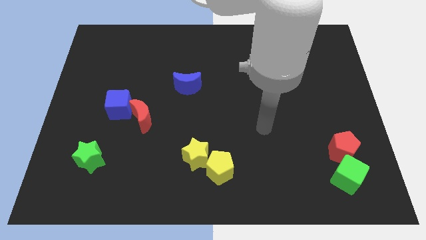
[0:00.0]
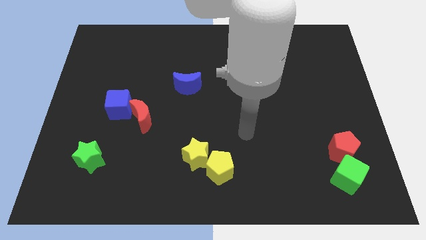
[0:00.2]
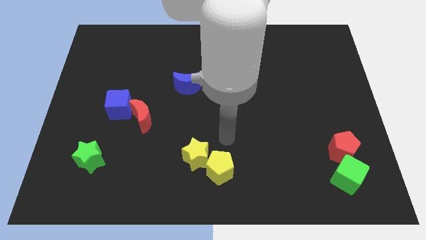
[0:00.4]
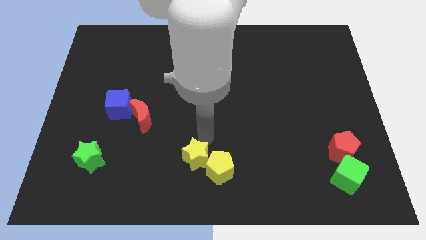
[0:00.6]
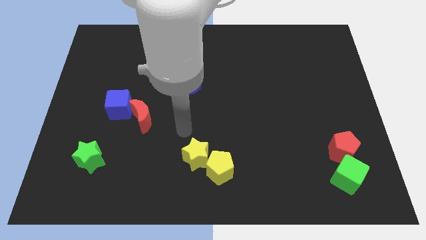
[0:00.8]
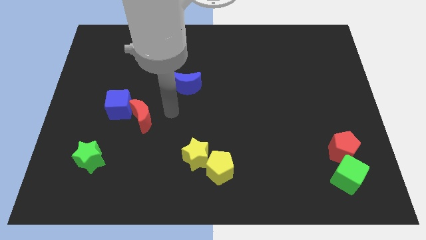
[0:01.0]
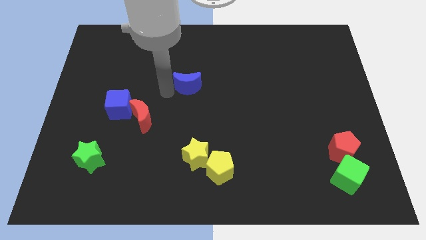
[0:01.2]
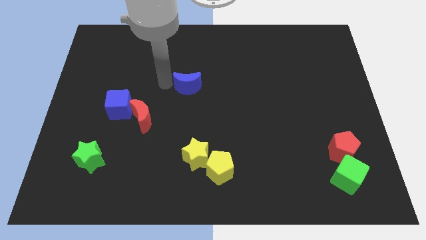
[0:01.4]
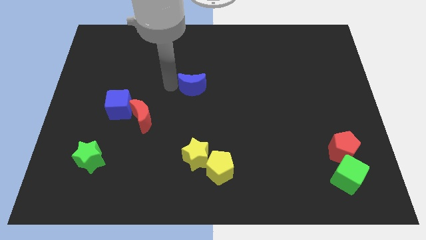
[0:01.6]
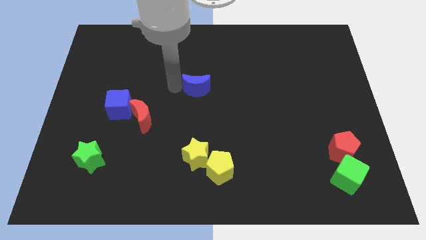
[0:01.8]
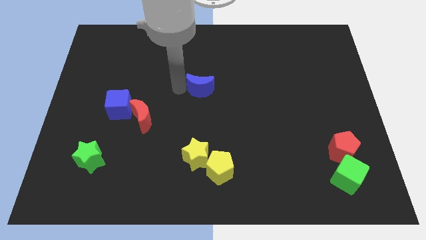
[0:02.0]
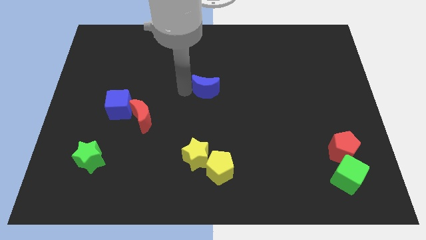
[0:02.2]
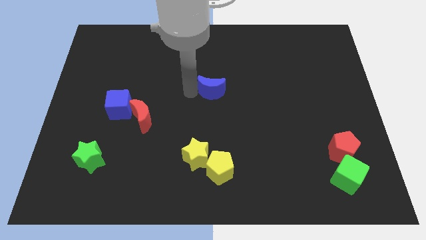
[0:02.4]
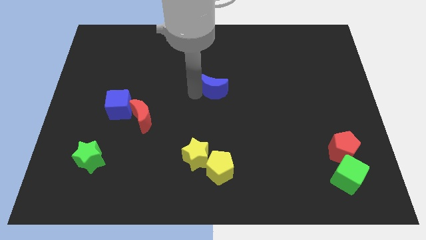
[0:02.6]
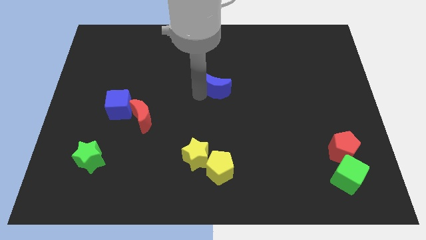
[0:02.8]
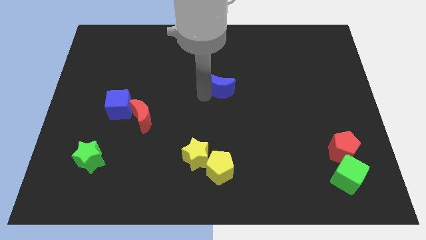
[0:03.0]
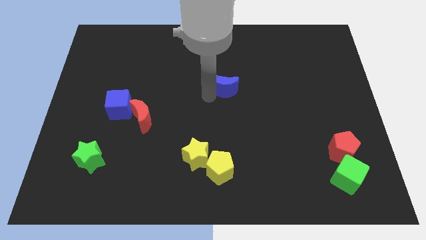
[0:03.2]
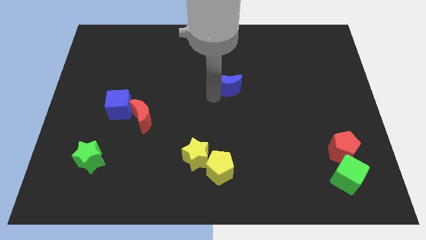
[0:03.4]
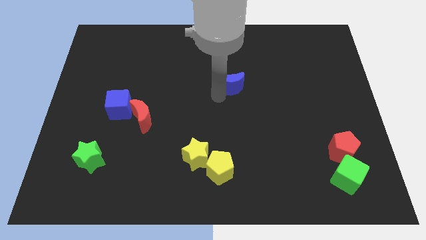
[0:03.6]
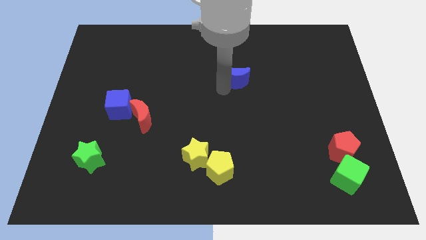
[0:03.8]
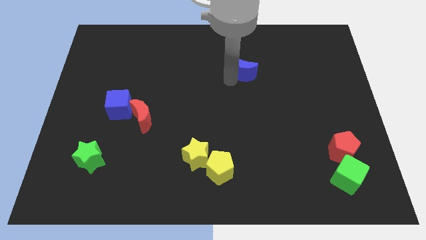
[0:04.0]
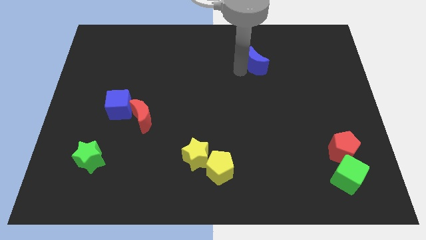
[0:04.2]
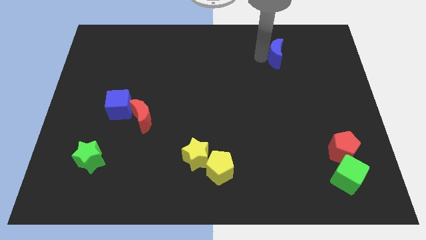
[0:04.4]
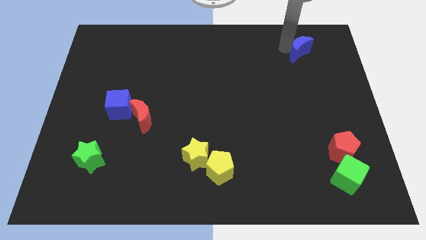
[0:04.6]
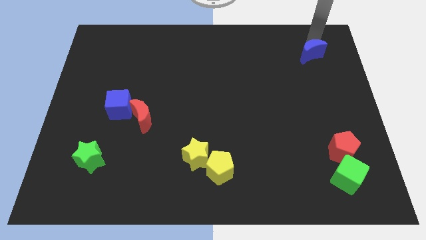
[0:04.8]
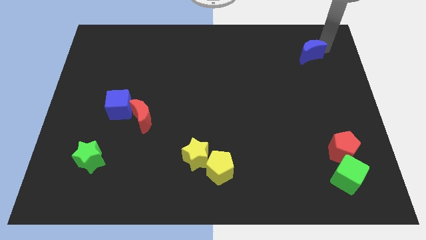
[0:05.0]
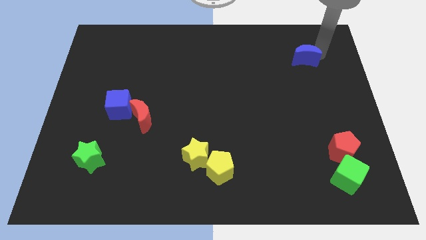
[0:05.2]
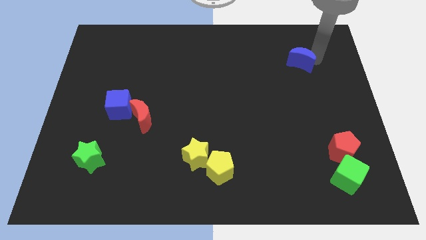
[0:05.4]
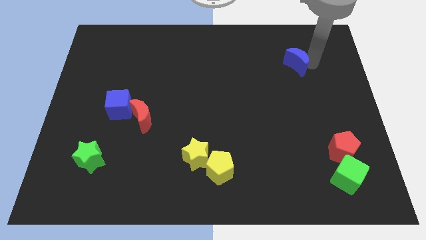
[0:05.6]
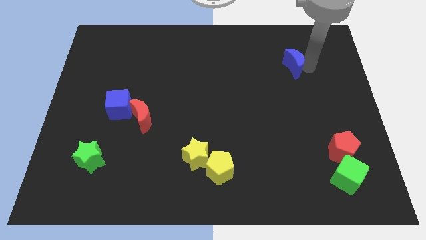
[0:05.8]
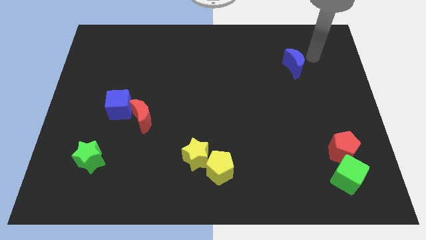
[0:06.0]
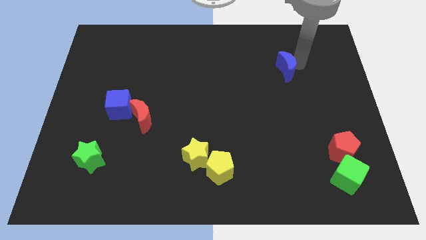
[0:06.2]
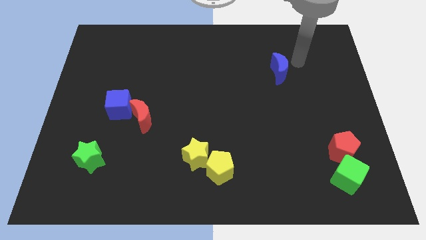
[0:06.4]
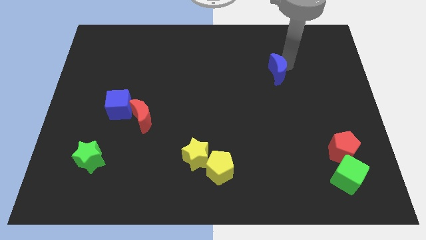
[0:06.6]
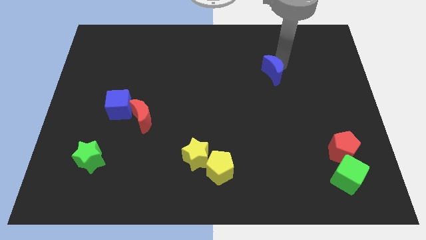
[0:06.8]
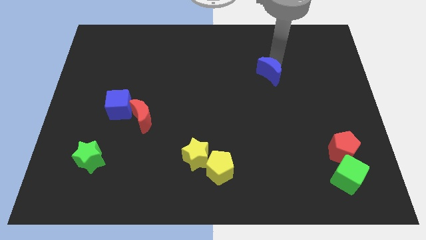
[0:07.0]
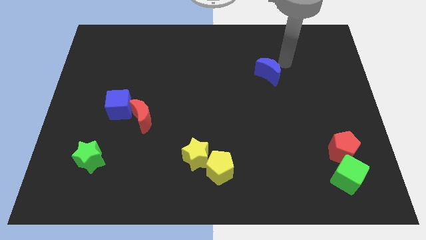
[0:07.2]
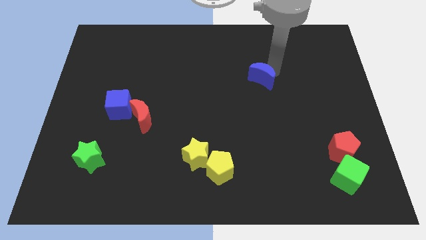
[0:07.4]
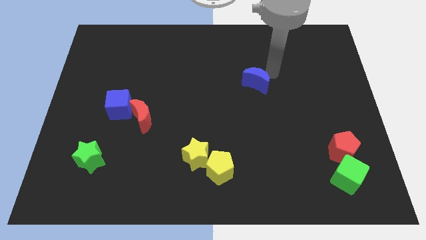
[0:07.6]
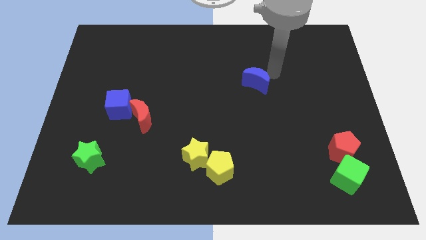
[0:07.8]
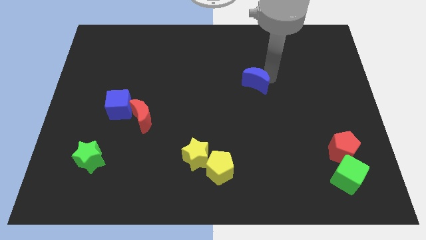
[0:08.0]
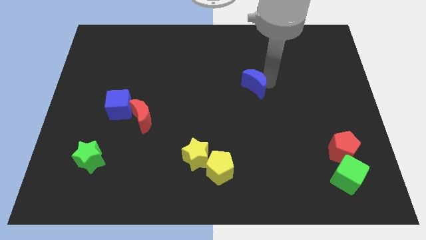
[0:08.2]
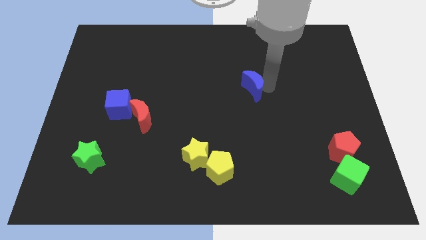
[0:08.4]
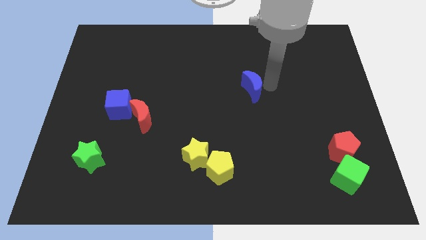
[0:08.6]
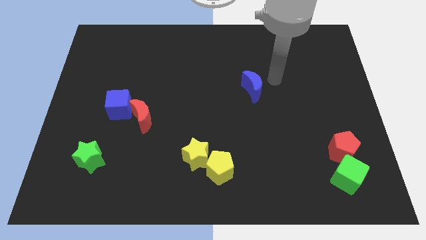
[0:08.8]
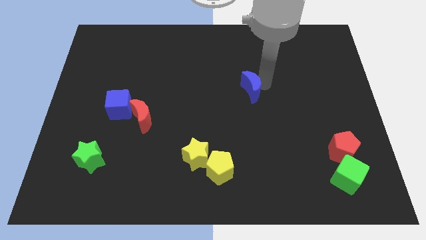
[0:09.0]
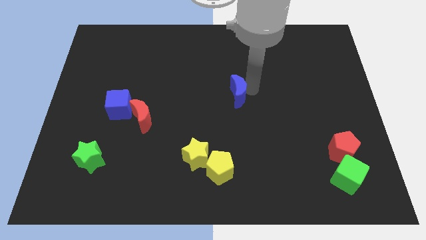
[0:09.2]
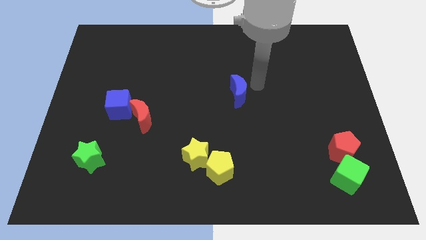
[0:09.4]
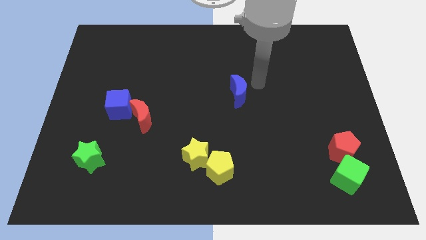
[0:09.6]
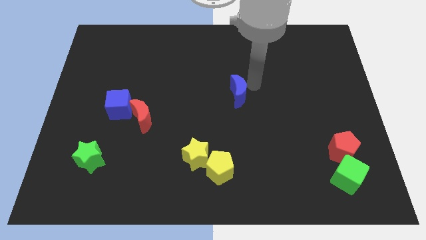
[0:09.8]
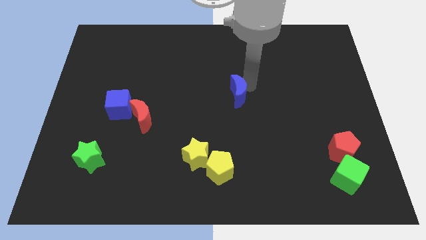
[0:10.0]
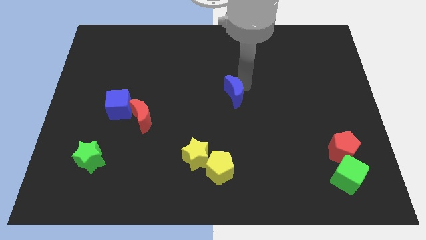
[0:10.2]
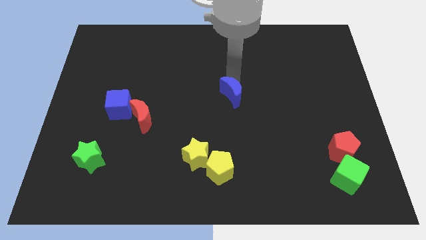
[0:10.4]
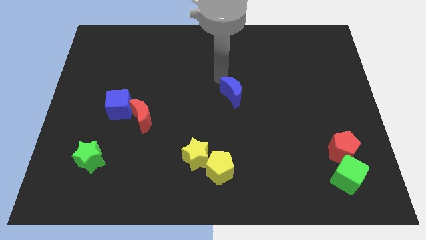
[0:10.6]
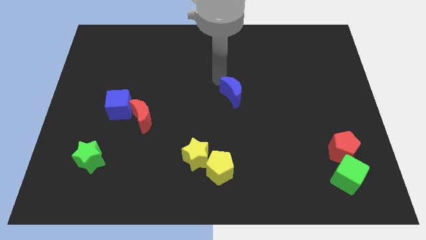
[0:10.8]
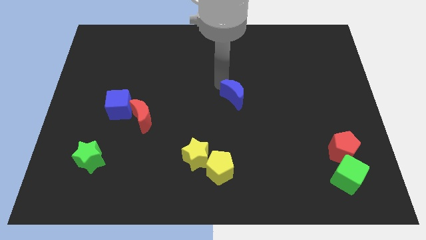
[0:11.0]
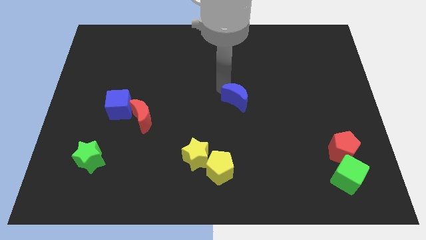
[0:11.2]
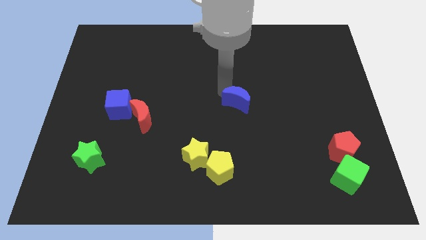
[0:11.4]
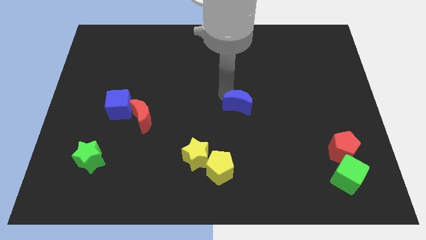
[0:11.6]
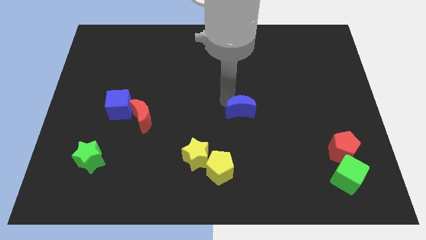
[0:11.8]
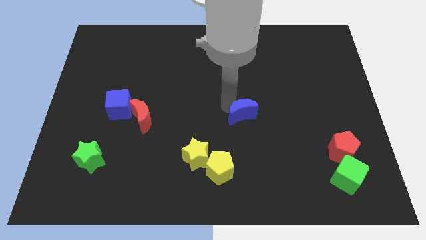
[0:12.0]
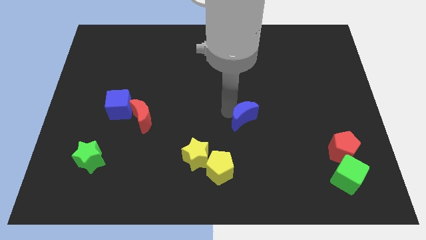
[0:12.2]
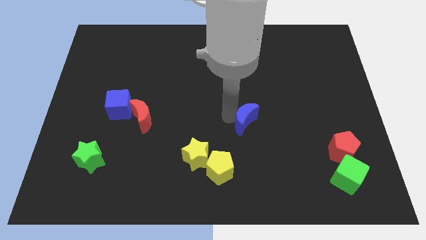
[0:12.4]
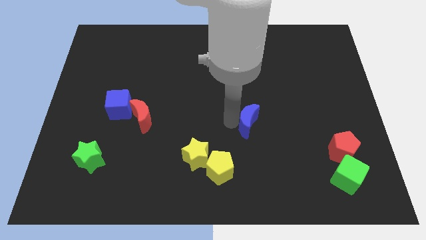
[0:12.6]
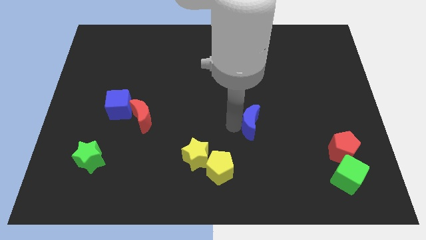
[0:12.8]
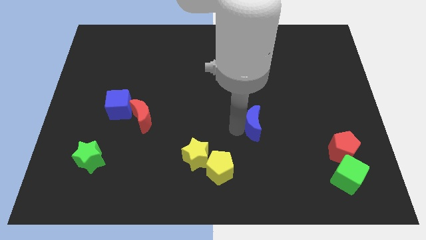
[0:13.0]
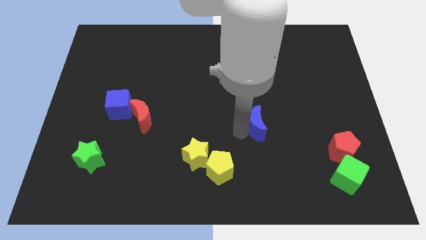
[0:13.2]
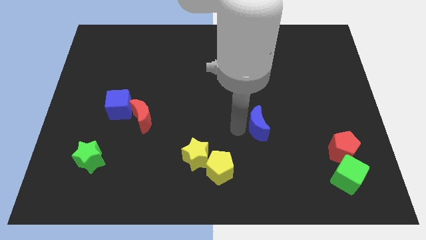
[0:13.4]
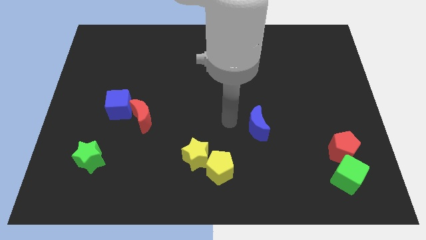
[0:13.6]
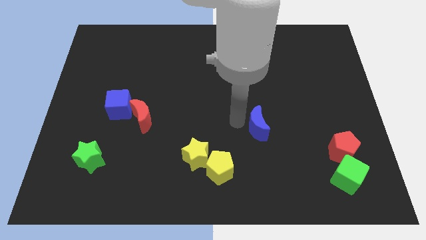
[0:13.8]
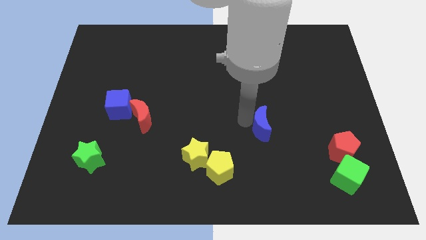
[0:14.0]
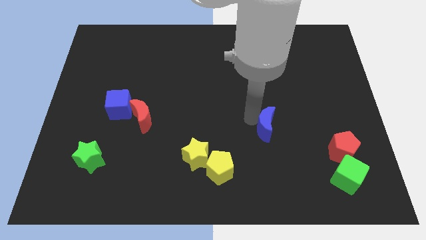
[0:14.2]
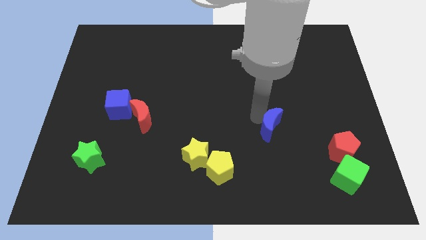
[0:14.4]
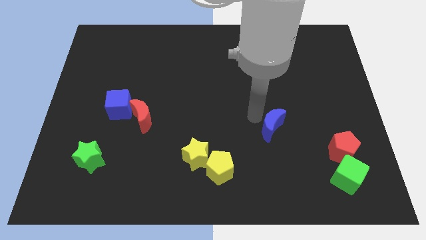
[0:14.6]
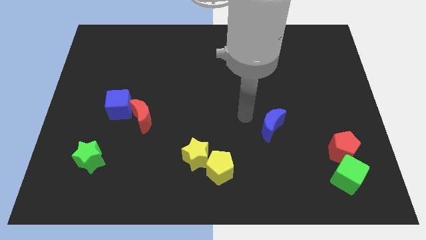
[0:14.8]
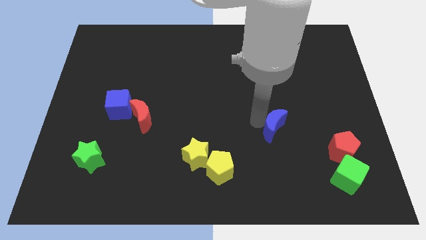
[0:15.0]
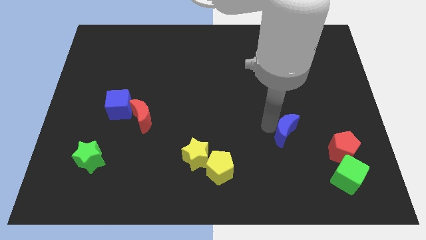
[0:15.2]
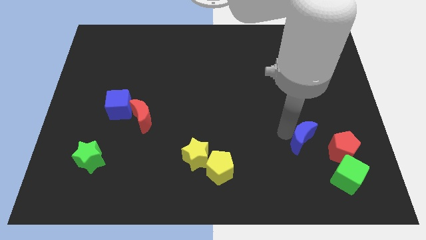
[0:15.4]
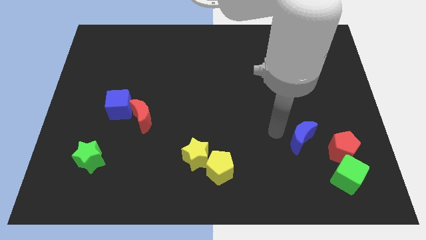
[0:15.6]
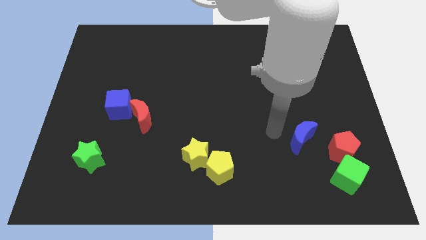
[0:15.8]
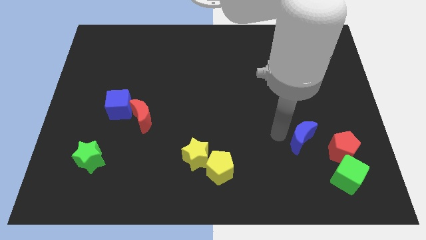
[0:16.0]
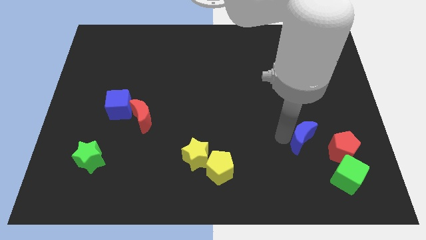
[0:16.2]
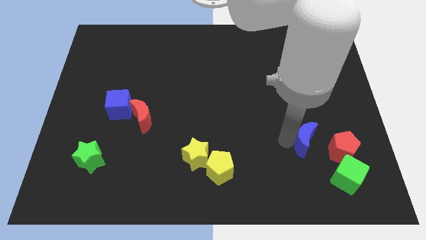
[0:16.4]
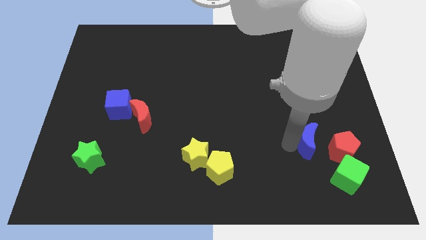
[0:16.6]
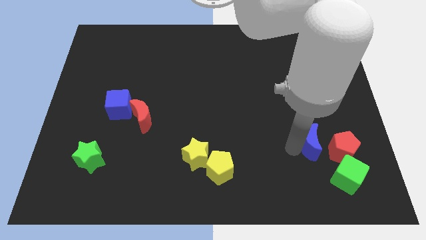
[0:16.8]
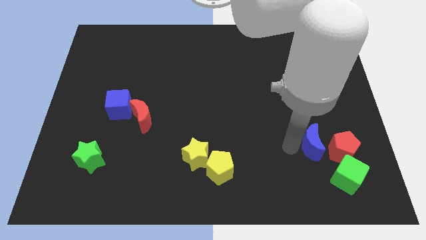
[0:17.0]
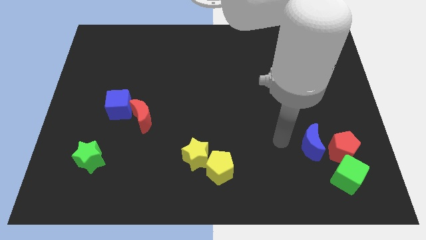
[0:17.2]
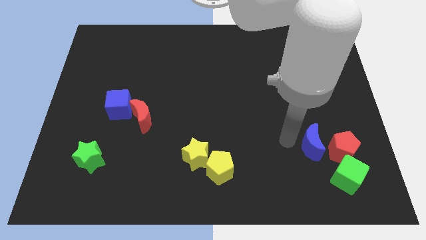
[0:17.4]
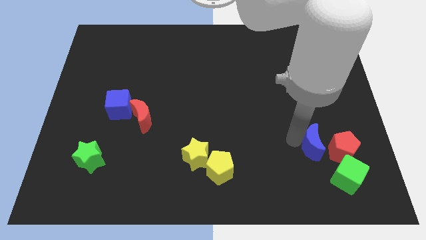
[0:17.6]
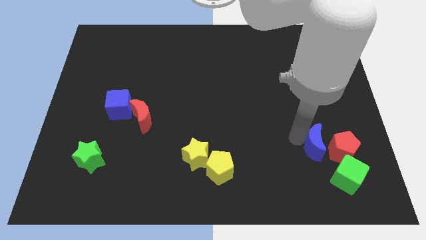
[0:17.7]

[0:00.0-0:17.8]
slide the blue moon next to the red pentagon
